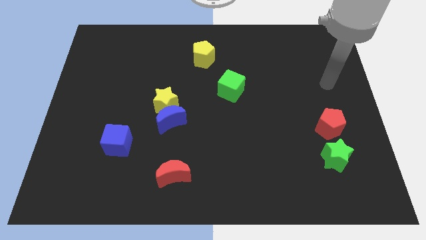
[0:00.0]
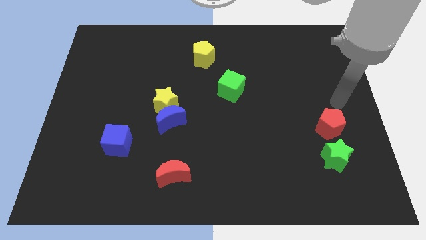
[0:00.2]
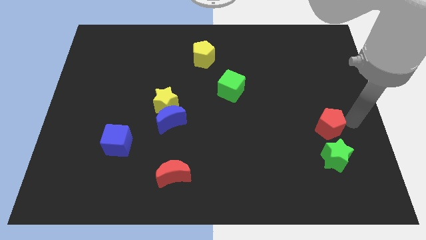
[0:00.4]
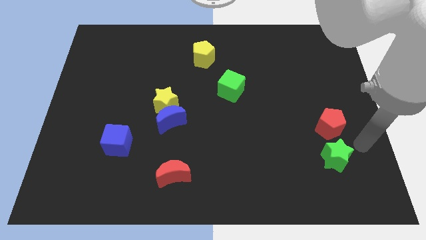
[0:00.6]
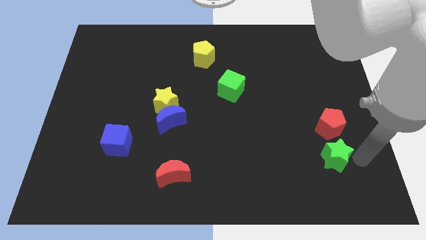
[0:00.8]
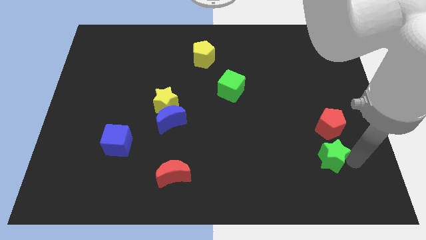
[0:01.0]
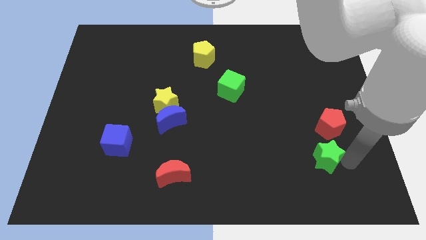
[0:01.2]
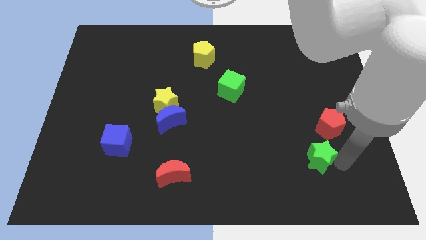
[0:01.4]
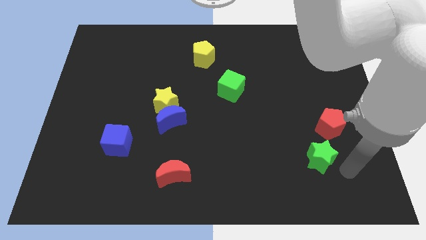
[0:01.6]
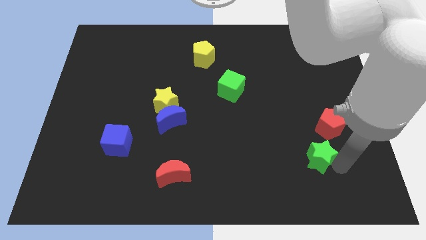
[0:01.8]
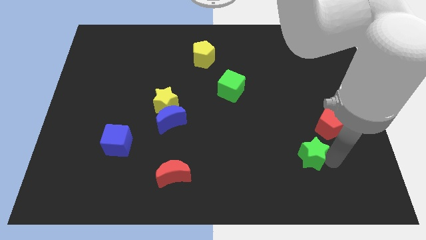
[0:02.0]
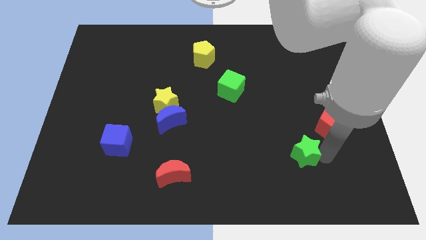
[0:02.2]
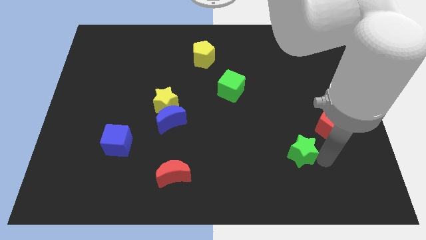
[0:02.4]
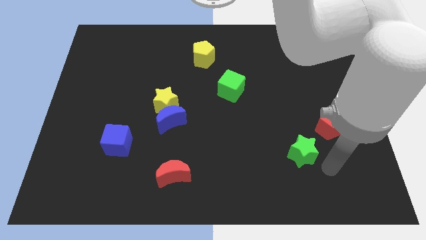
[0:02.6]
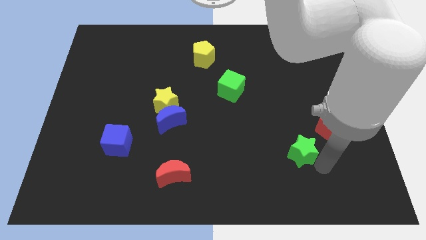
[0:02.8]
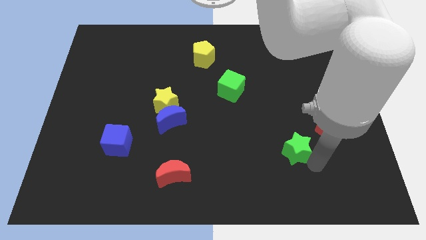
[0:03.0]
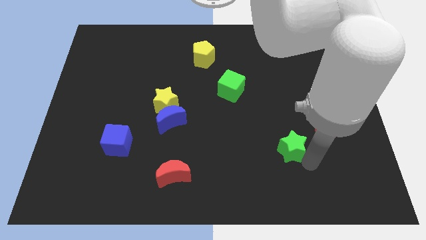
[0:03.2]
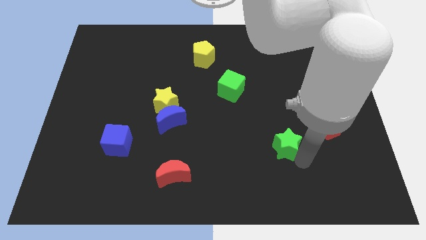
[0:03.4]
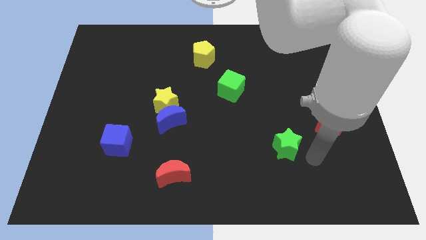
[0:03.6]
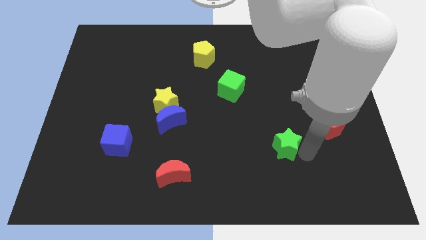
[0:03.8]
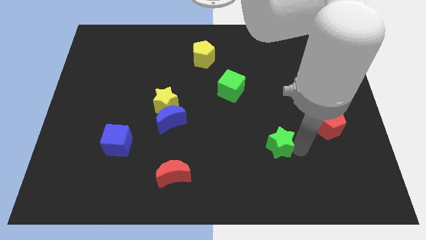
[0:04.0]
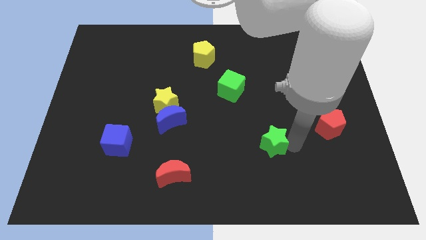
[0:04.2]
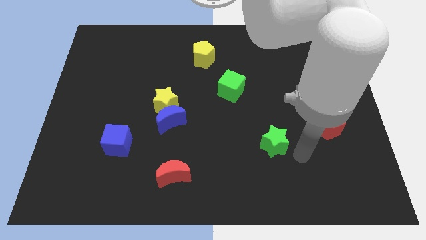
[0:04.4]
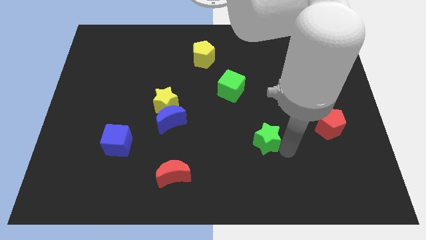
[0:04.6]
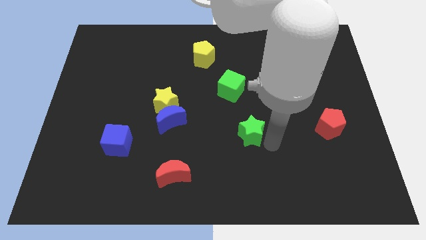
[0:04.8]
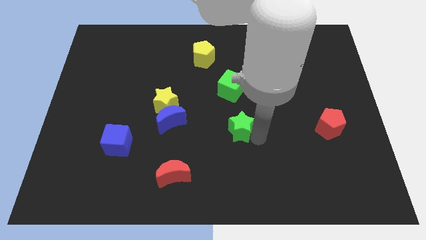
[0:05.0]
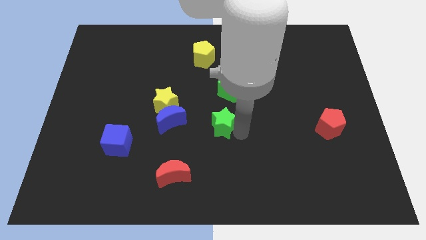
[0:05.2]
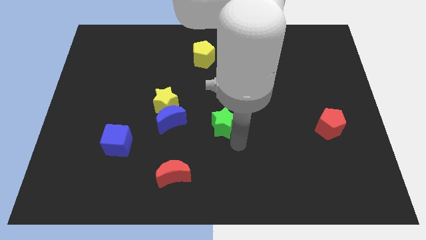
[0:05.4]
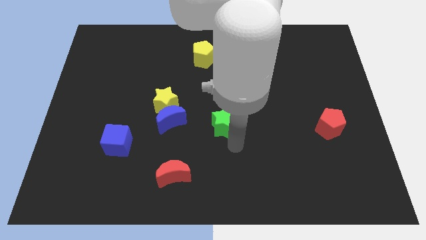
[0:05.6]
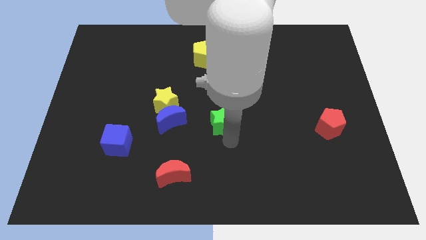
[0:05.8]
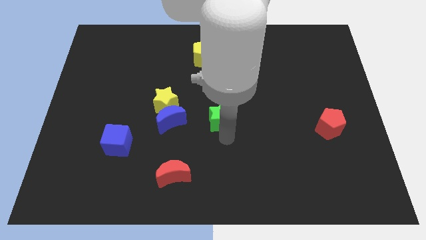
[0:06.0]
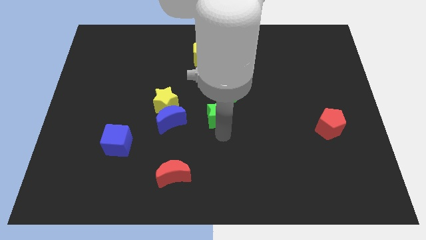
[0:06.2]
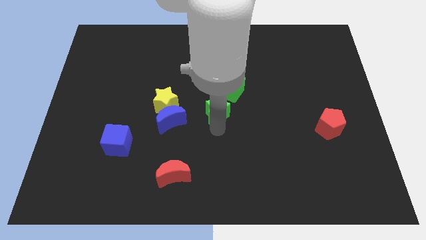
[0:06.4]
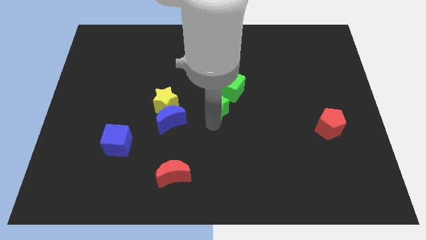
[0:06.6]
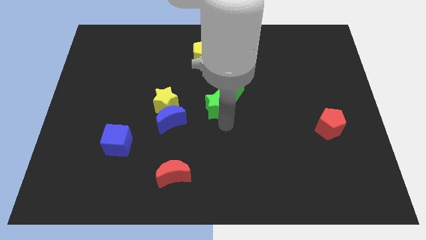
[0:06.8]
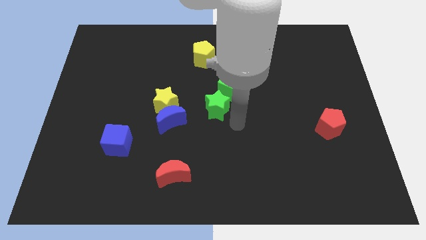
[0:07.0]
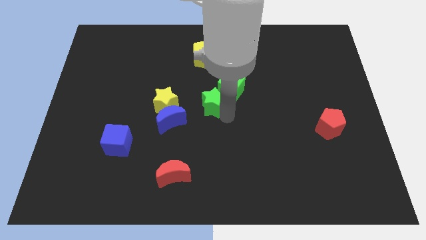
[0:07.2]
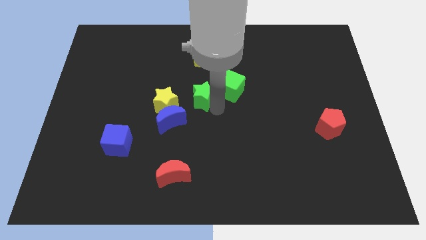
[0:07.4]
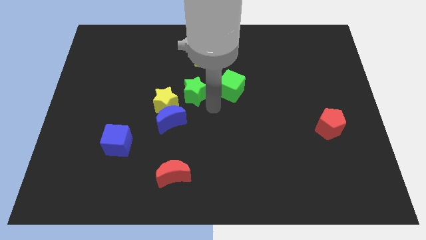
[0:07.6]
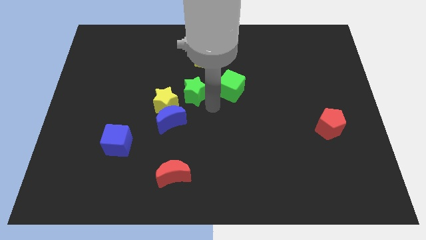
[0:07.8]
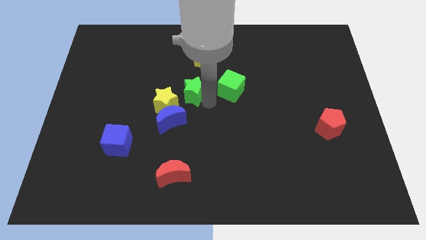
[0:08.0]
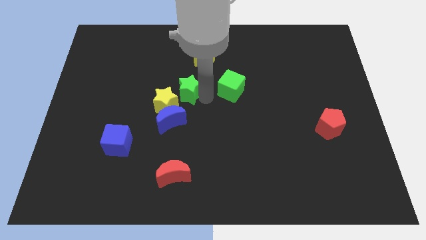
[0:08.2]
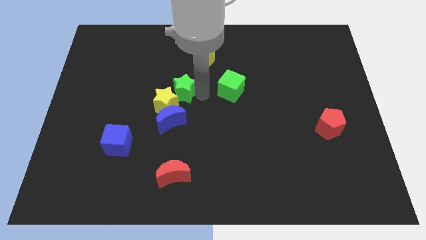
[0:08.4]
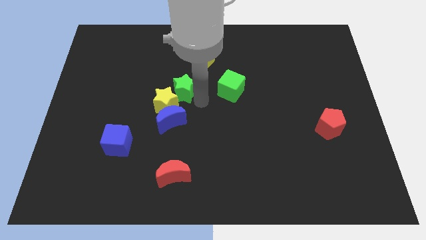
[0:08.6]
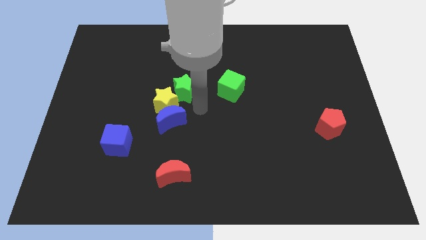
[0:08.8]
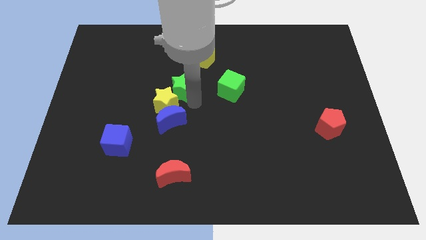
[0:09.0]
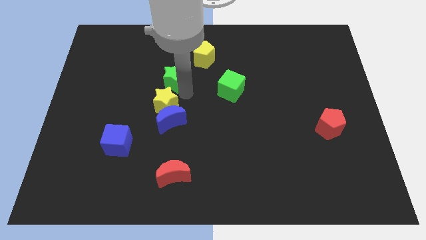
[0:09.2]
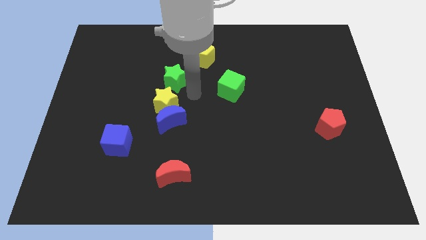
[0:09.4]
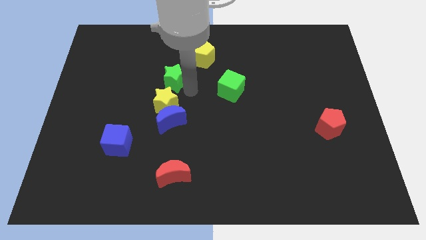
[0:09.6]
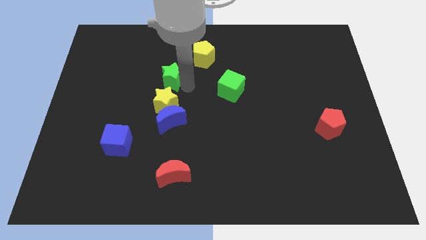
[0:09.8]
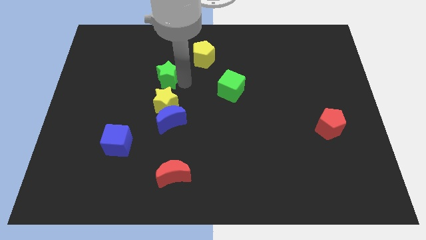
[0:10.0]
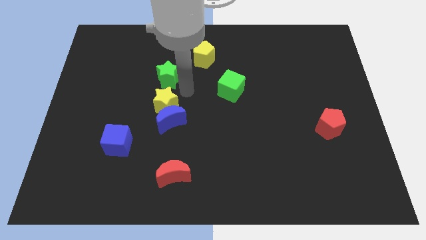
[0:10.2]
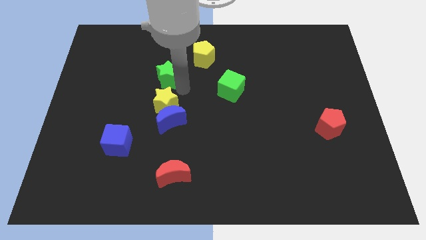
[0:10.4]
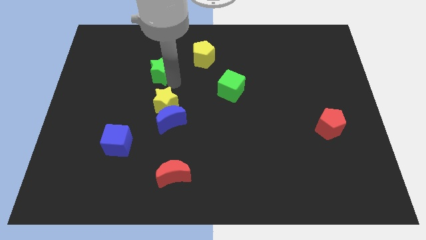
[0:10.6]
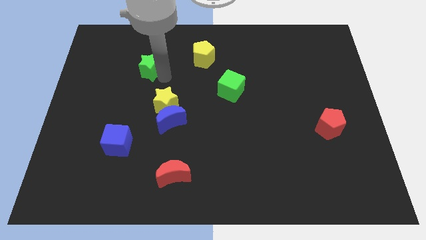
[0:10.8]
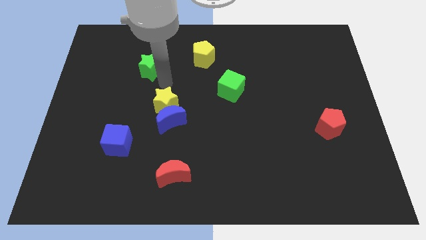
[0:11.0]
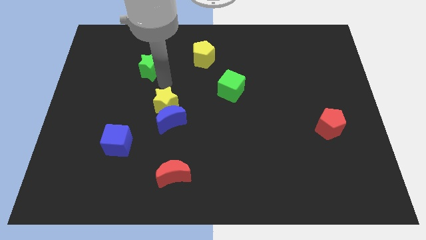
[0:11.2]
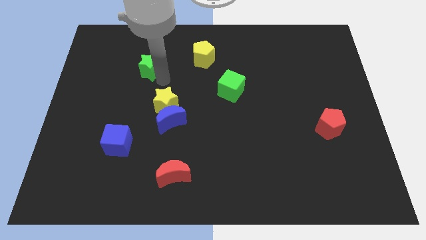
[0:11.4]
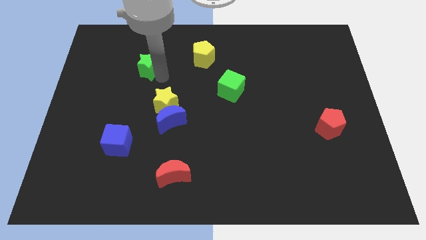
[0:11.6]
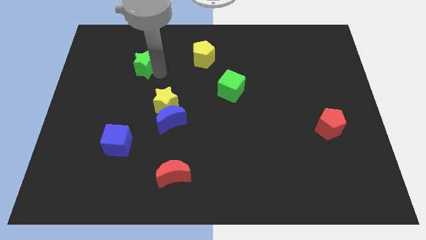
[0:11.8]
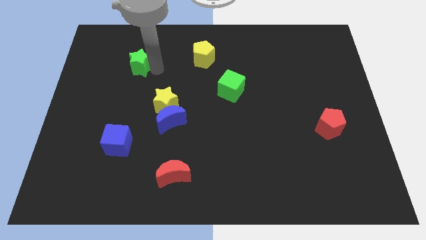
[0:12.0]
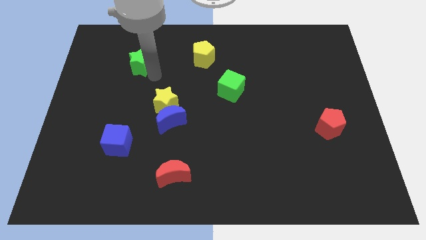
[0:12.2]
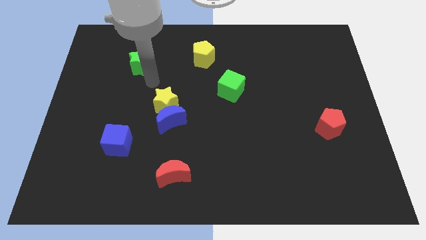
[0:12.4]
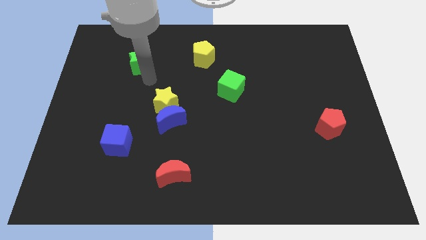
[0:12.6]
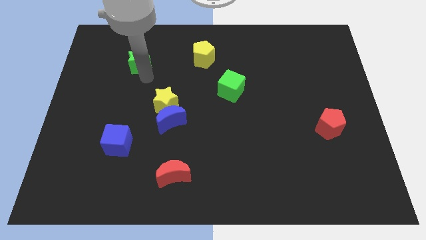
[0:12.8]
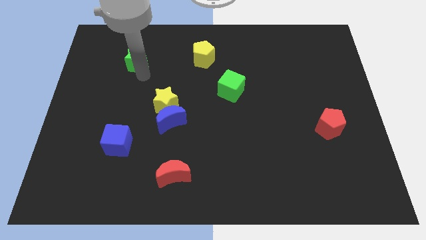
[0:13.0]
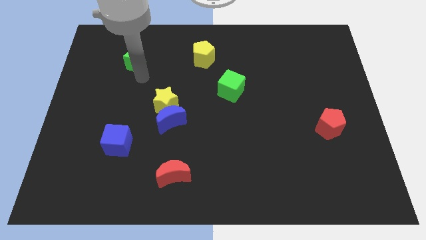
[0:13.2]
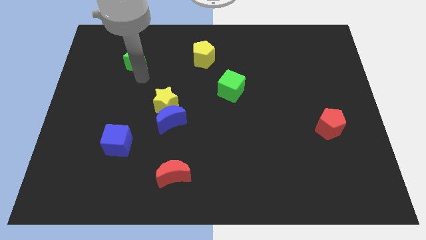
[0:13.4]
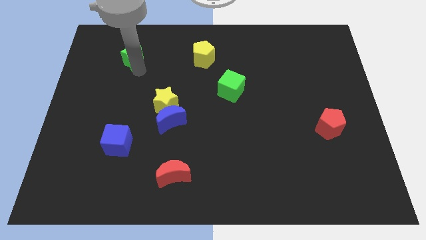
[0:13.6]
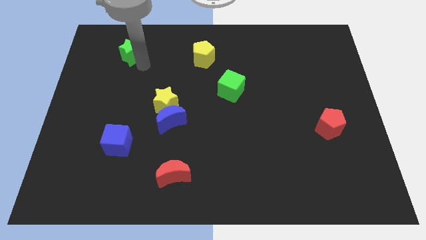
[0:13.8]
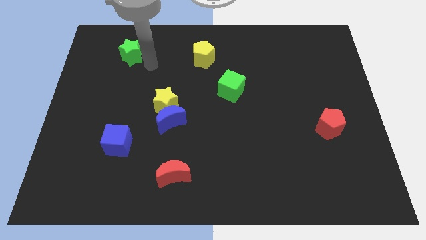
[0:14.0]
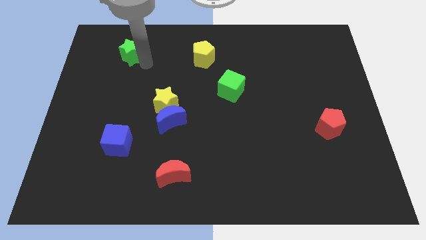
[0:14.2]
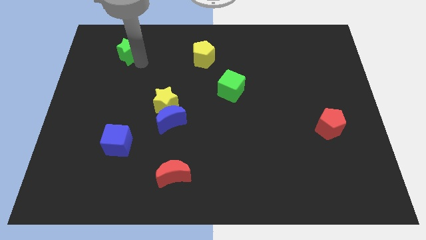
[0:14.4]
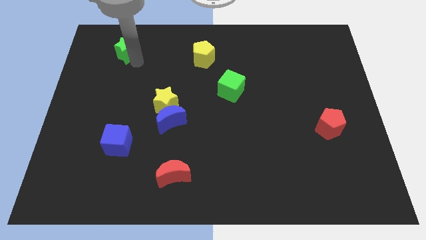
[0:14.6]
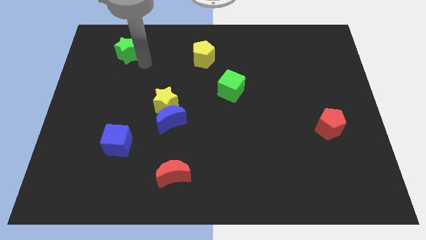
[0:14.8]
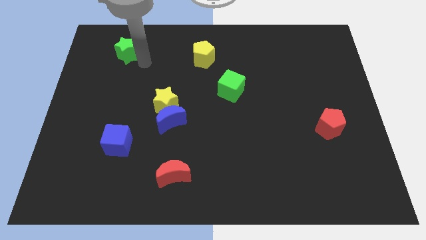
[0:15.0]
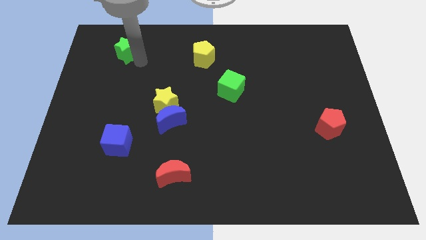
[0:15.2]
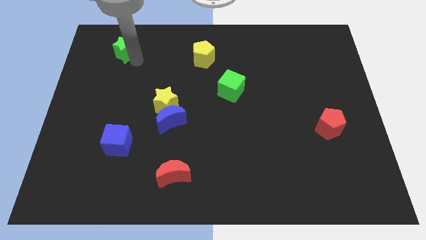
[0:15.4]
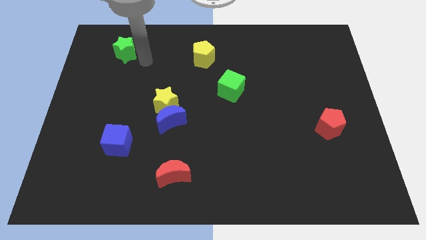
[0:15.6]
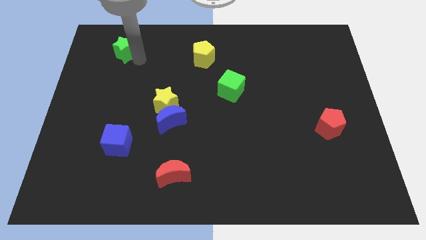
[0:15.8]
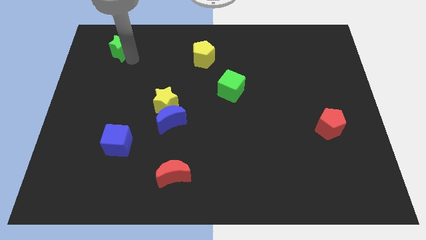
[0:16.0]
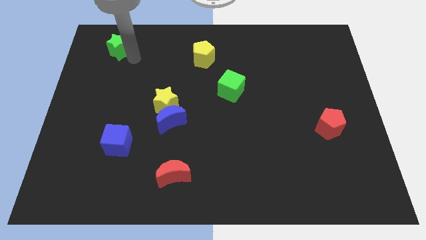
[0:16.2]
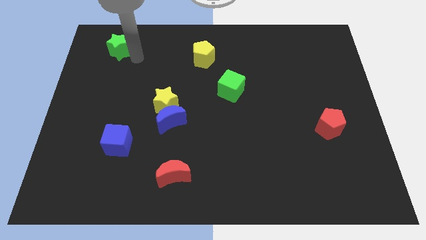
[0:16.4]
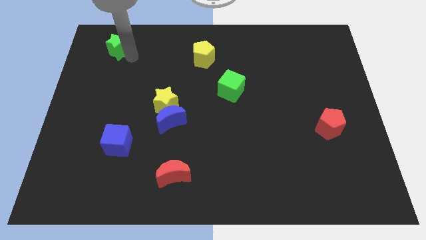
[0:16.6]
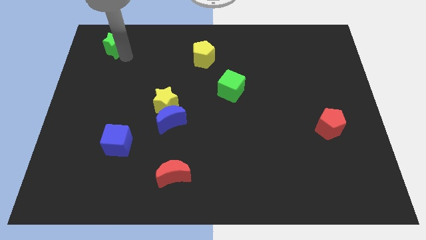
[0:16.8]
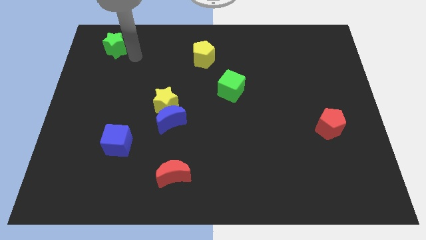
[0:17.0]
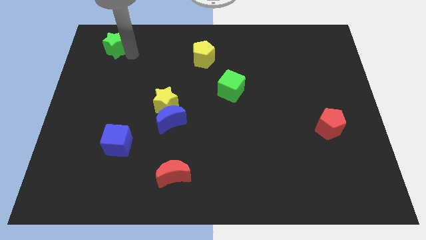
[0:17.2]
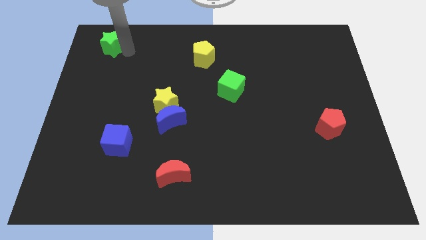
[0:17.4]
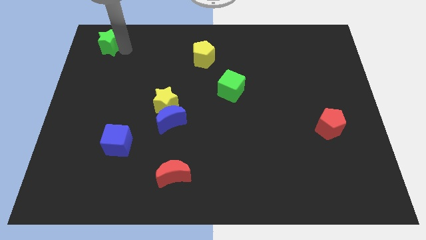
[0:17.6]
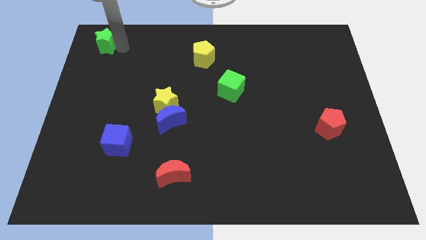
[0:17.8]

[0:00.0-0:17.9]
slide the green star to the top left corner
